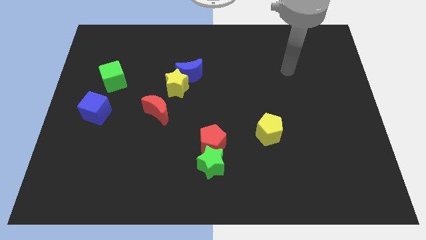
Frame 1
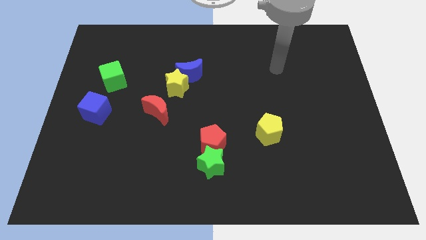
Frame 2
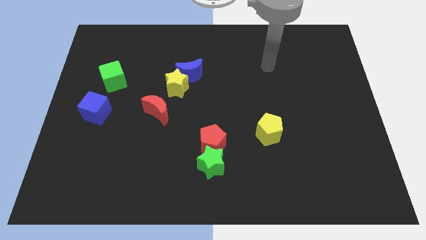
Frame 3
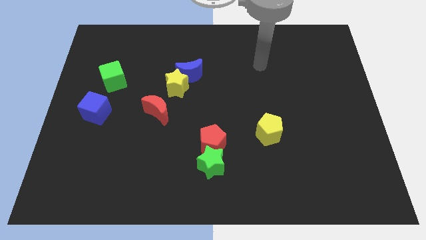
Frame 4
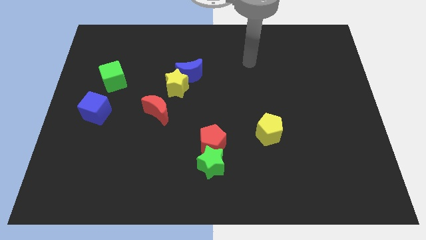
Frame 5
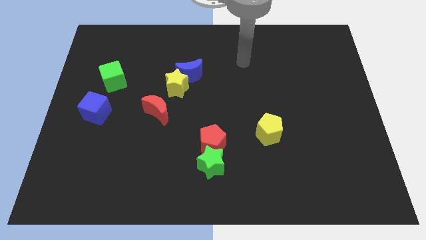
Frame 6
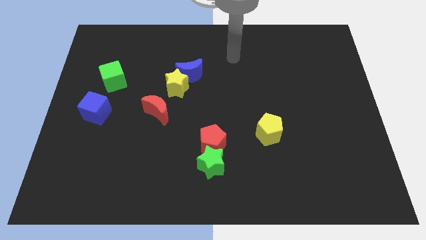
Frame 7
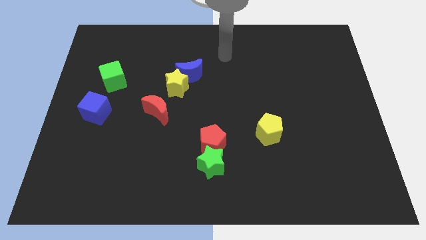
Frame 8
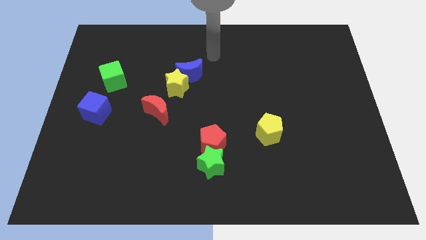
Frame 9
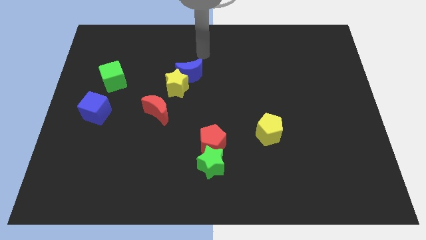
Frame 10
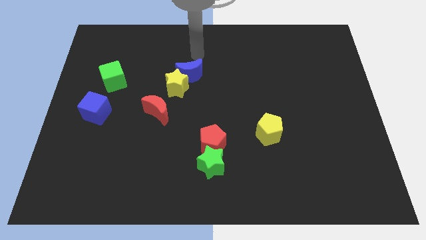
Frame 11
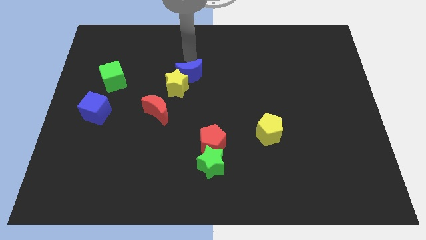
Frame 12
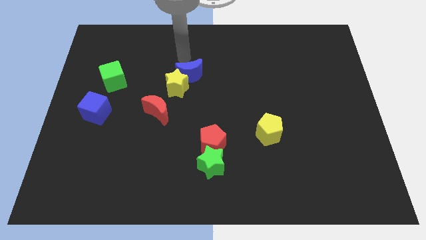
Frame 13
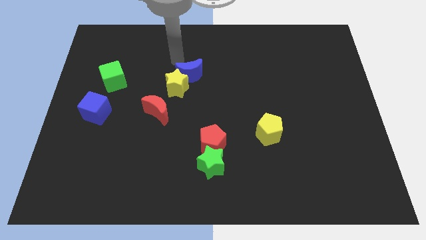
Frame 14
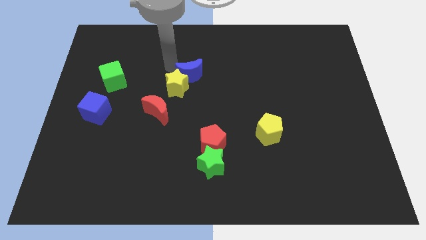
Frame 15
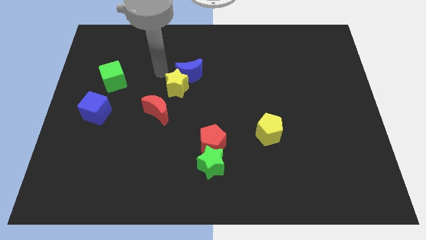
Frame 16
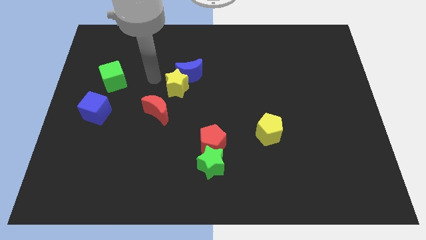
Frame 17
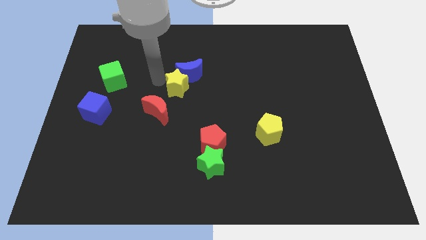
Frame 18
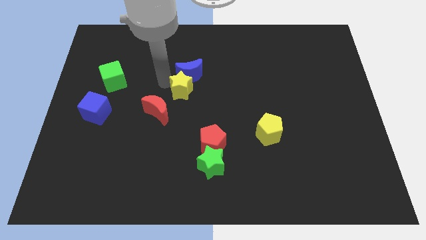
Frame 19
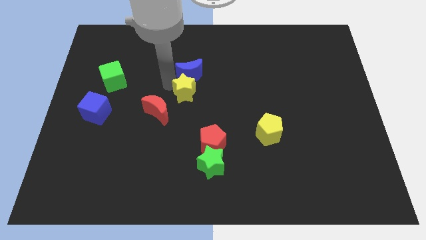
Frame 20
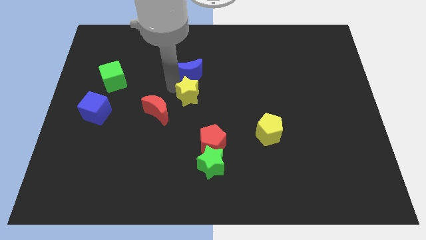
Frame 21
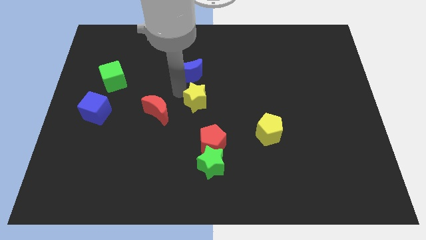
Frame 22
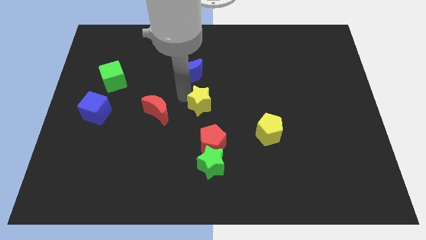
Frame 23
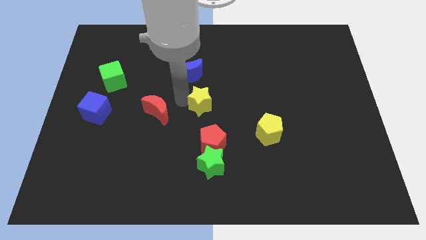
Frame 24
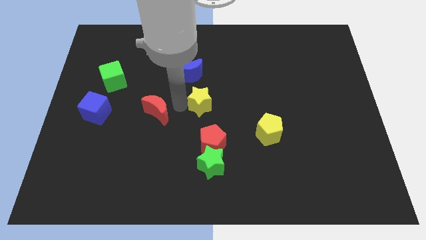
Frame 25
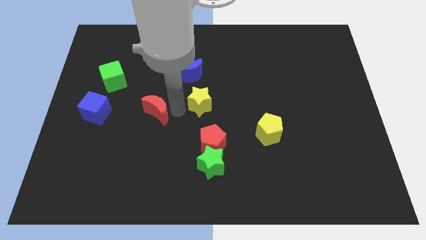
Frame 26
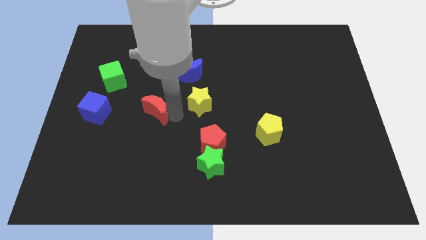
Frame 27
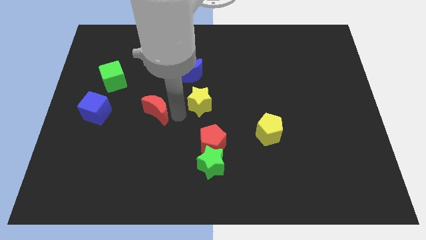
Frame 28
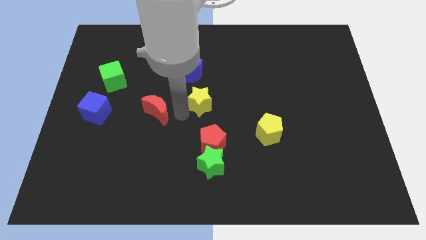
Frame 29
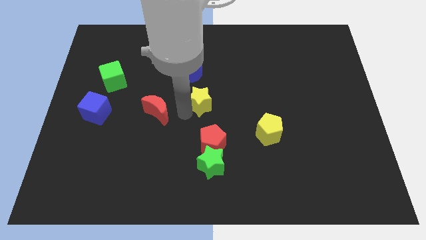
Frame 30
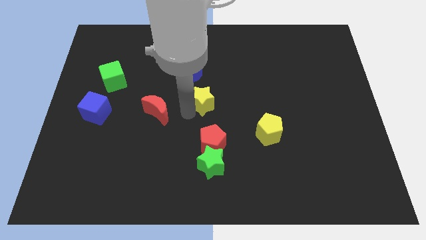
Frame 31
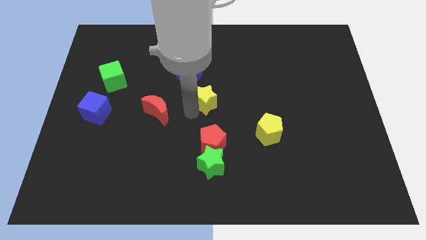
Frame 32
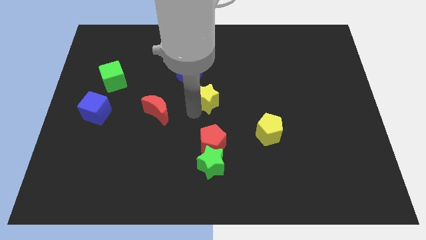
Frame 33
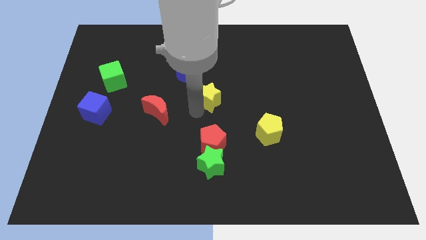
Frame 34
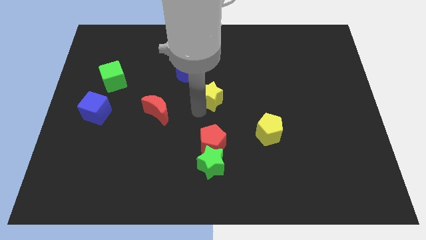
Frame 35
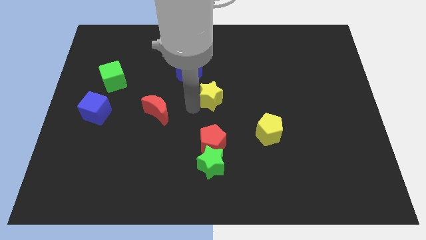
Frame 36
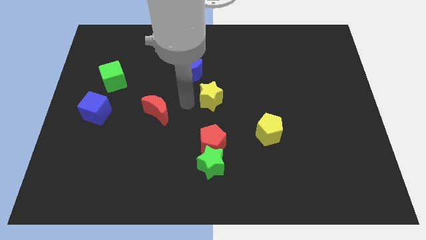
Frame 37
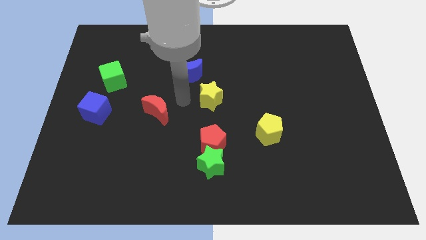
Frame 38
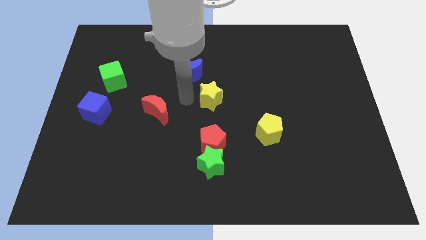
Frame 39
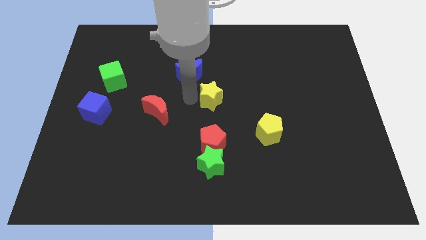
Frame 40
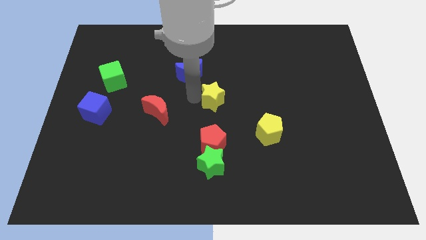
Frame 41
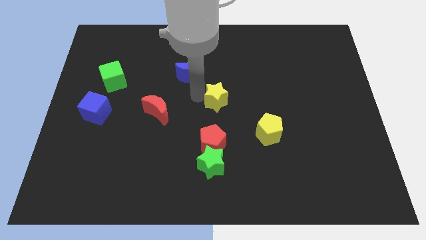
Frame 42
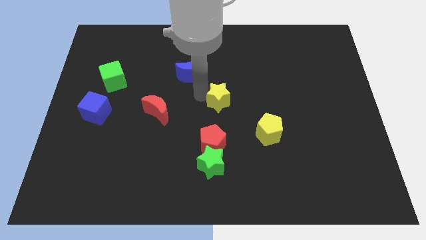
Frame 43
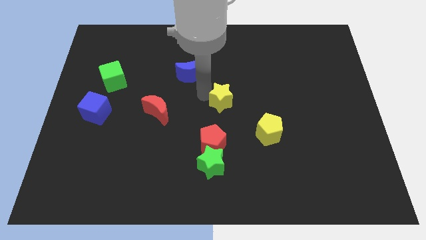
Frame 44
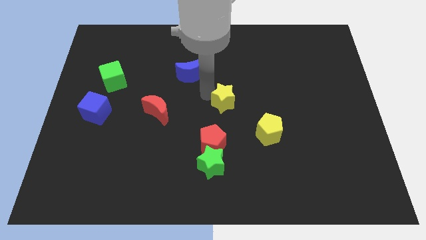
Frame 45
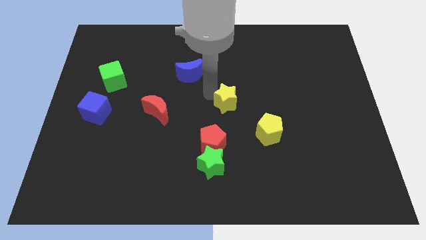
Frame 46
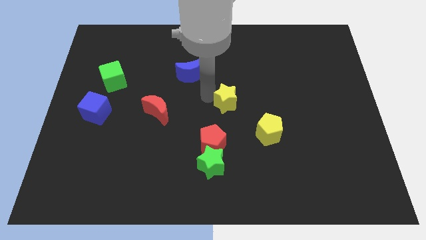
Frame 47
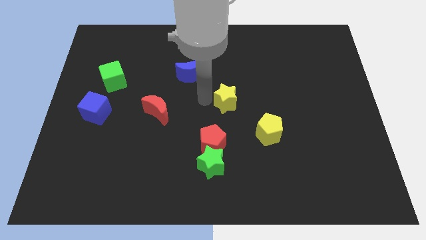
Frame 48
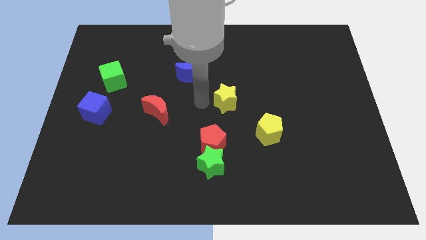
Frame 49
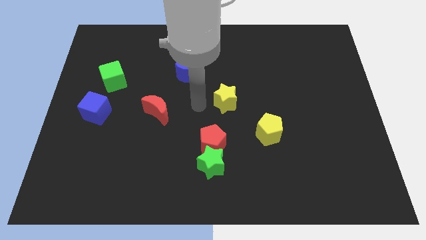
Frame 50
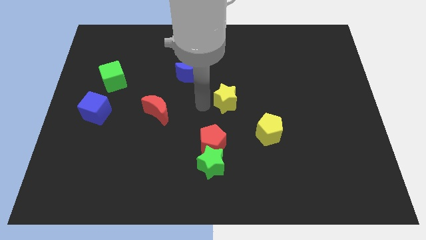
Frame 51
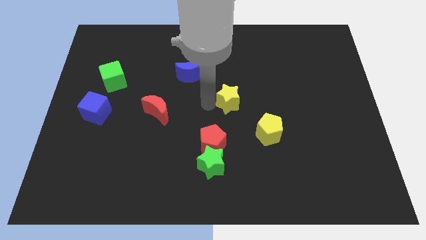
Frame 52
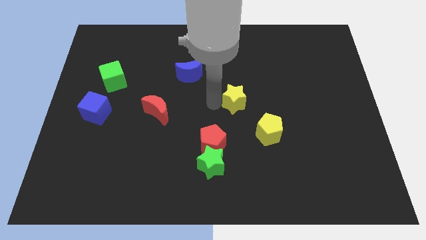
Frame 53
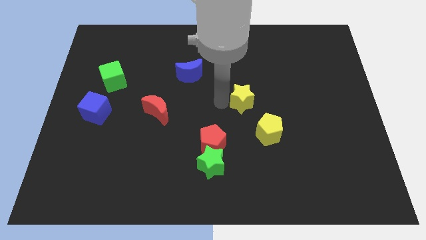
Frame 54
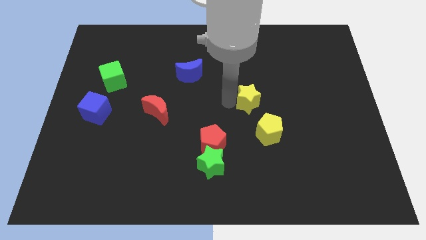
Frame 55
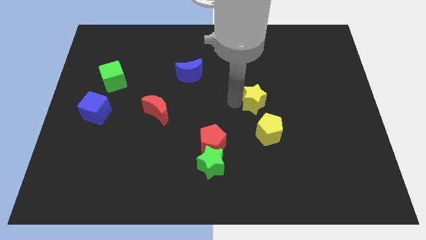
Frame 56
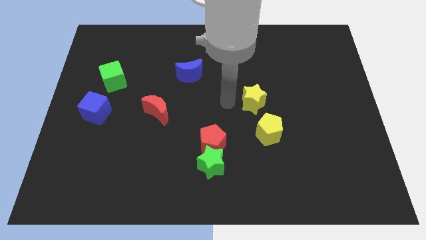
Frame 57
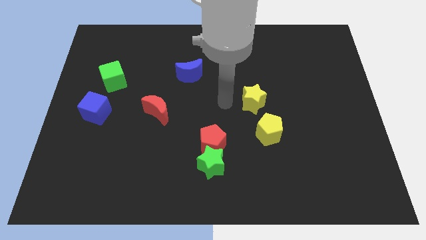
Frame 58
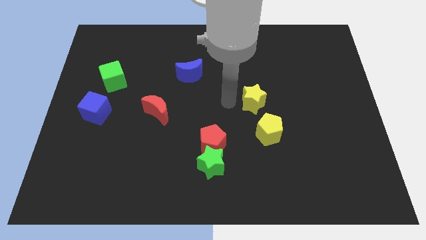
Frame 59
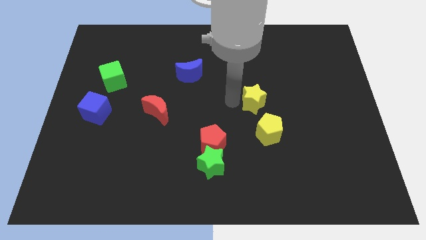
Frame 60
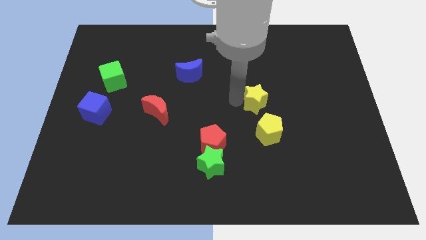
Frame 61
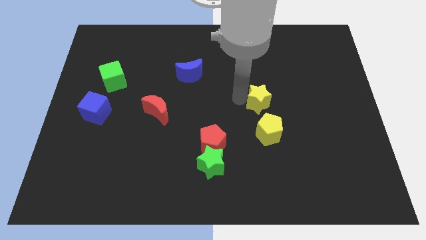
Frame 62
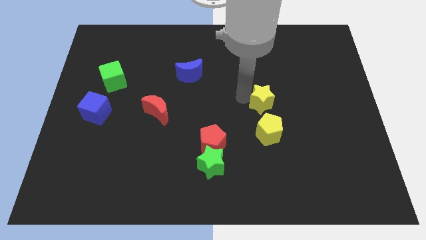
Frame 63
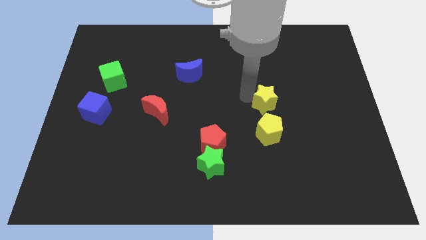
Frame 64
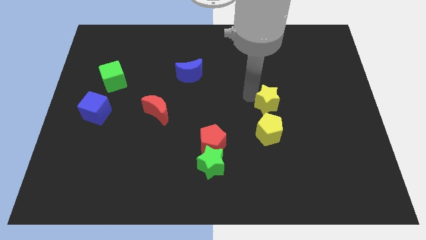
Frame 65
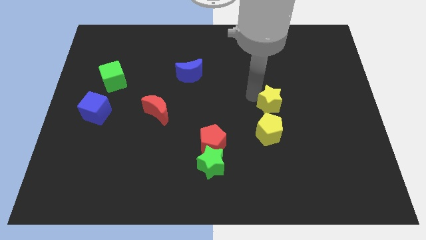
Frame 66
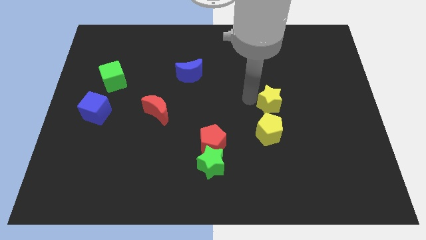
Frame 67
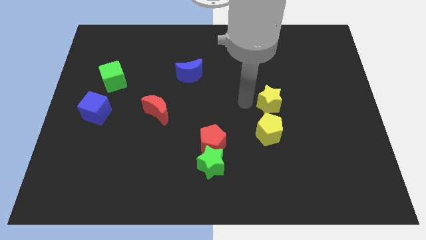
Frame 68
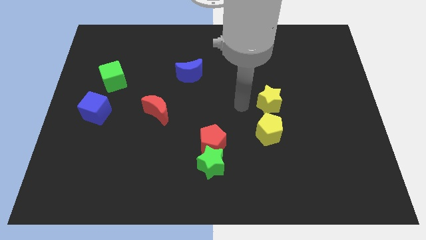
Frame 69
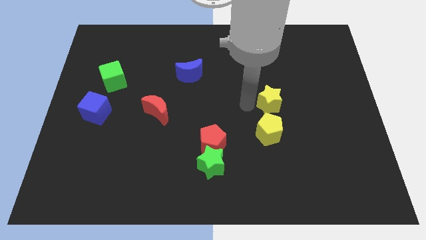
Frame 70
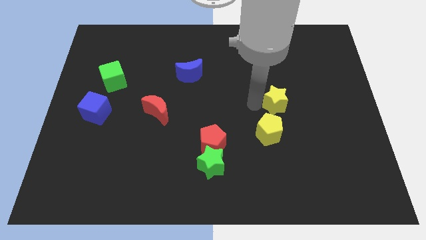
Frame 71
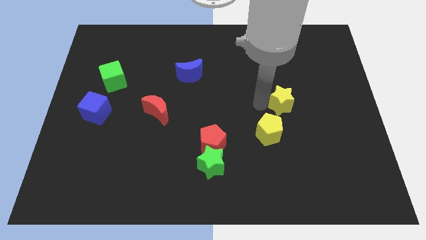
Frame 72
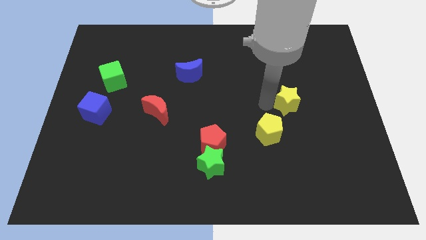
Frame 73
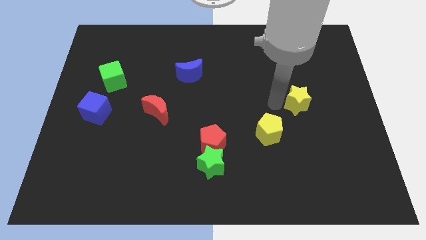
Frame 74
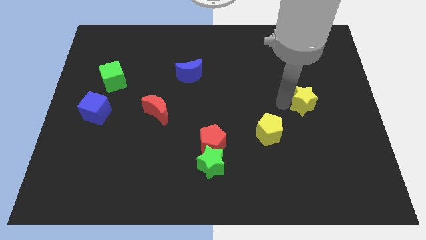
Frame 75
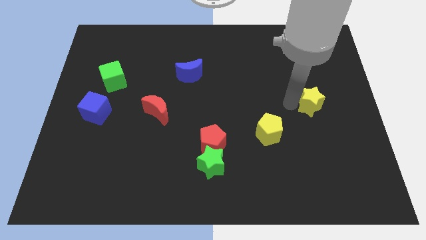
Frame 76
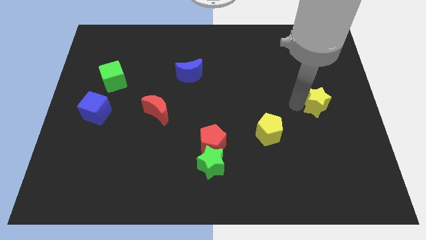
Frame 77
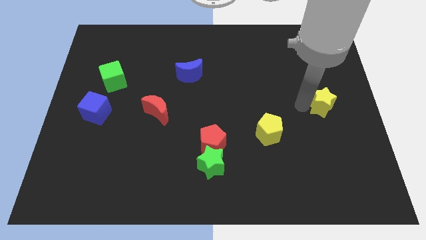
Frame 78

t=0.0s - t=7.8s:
slide the yellow star to the right side
